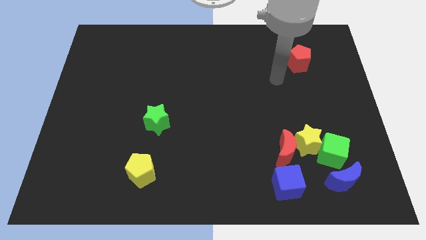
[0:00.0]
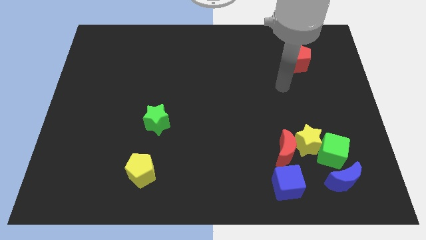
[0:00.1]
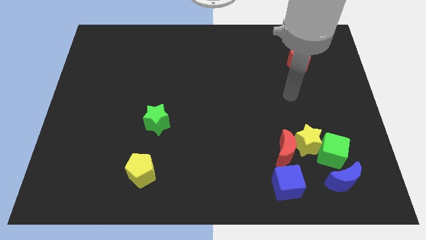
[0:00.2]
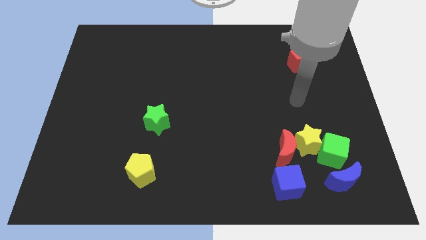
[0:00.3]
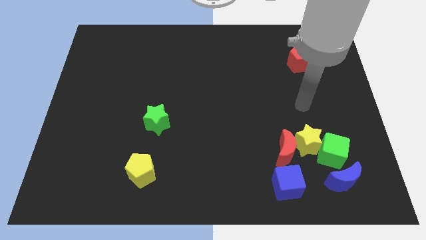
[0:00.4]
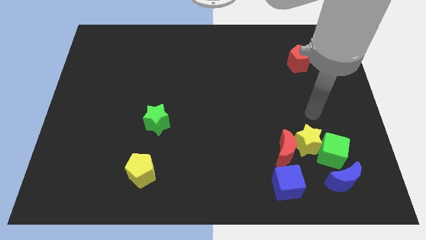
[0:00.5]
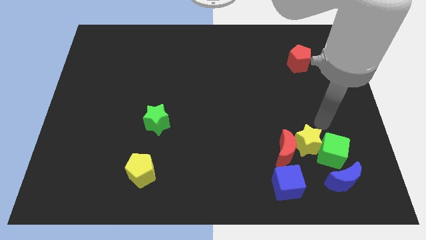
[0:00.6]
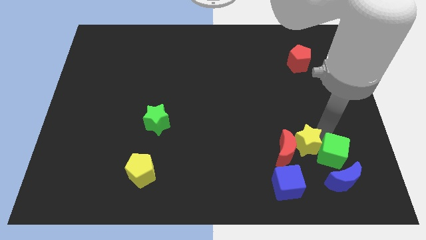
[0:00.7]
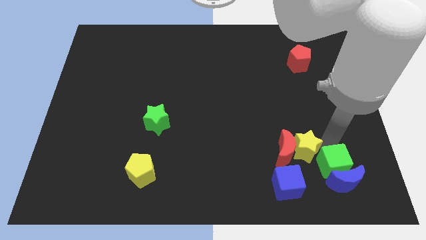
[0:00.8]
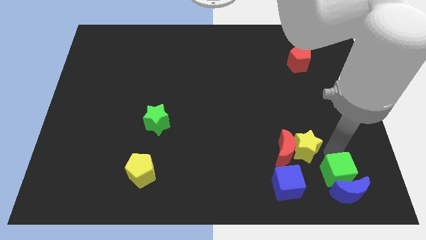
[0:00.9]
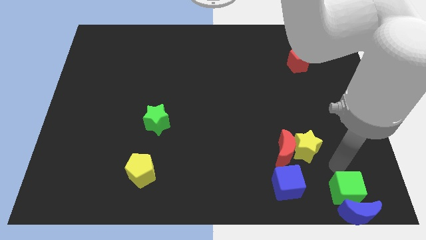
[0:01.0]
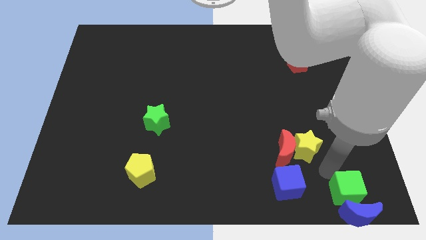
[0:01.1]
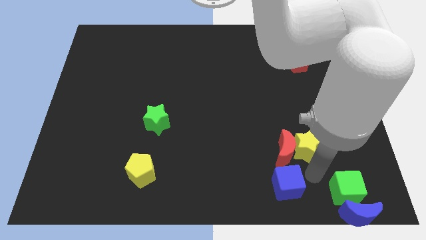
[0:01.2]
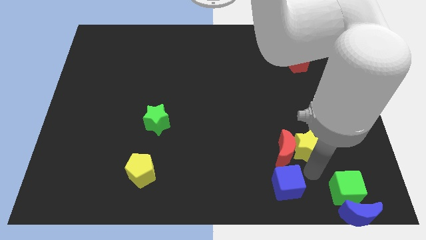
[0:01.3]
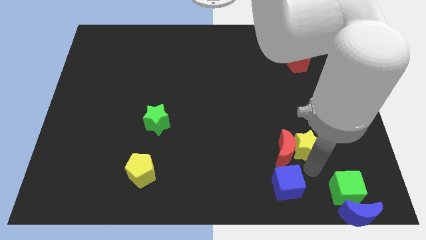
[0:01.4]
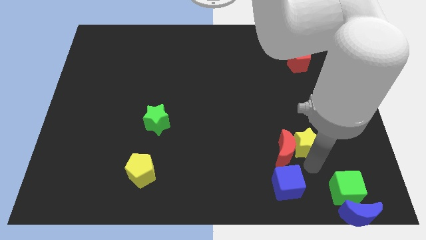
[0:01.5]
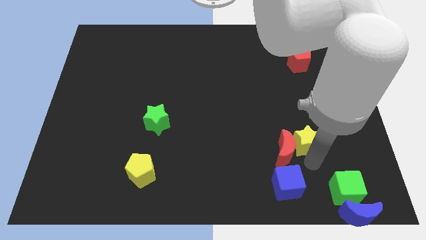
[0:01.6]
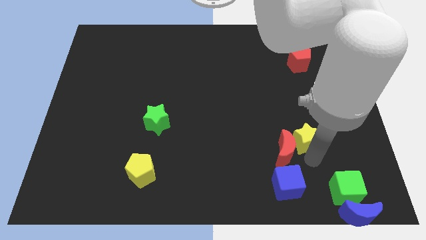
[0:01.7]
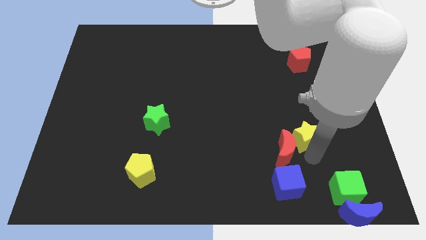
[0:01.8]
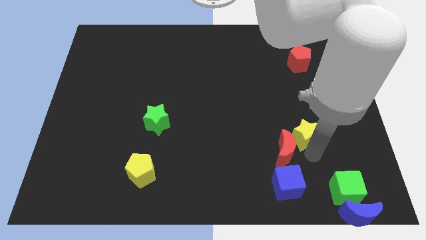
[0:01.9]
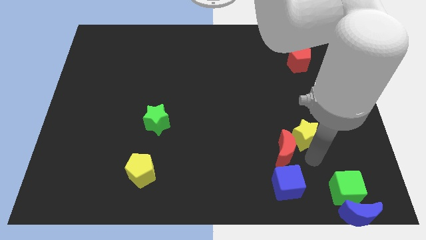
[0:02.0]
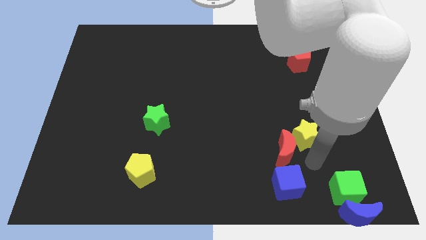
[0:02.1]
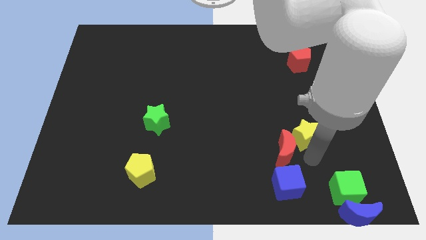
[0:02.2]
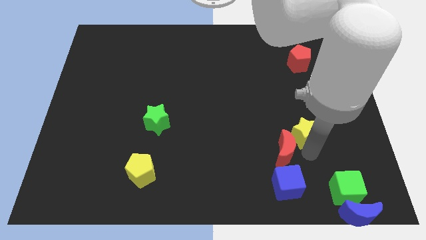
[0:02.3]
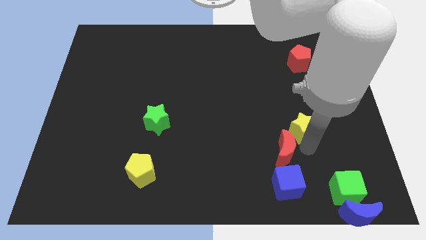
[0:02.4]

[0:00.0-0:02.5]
pull the yellow star apart from the red moon and green cube

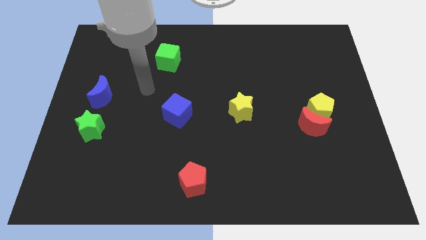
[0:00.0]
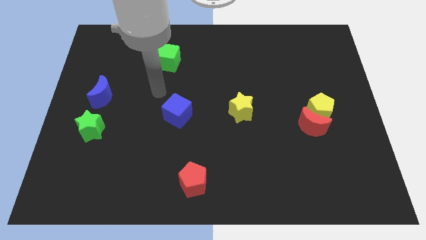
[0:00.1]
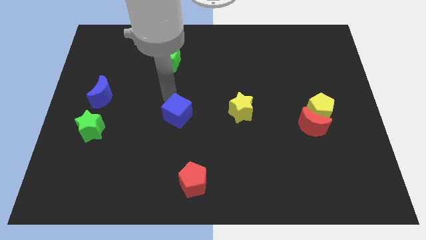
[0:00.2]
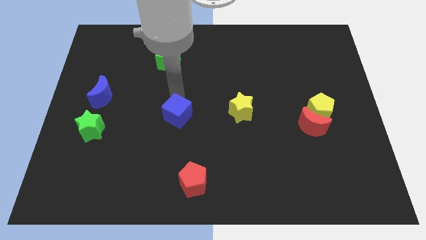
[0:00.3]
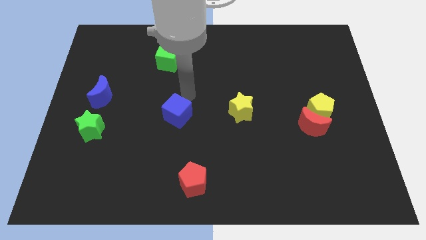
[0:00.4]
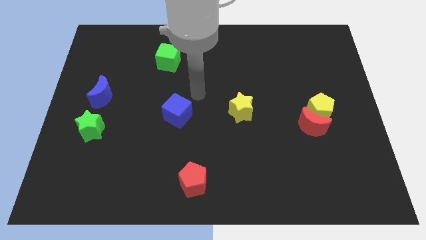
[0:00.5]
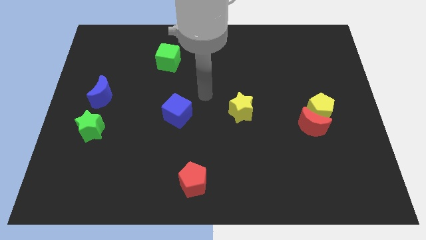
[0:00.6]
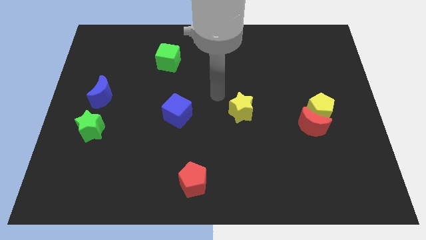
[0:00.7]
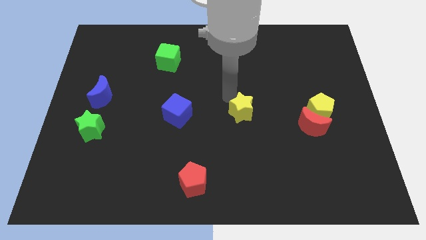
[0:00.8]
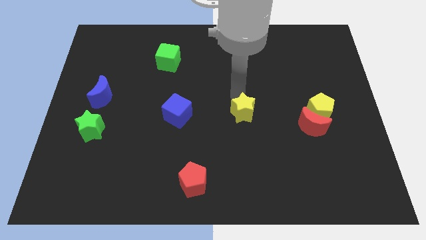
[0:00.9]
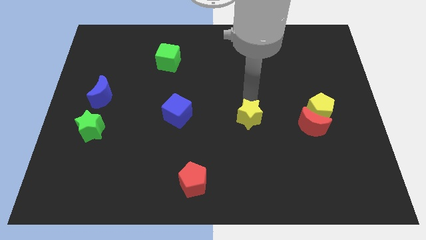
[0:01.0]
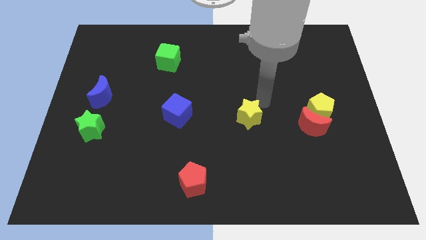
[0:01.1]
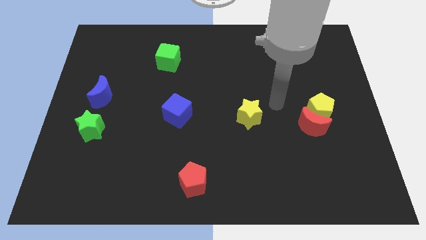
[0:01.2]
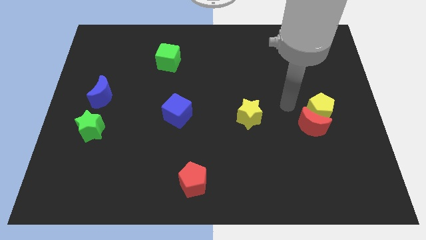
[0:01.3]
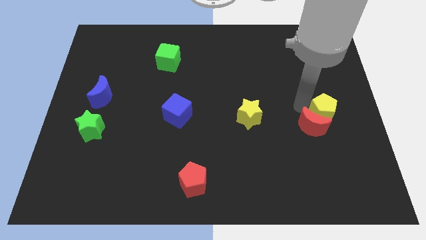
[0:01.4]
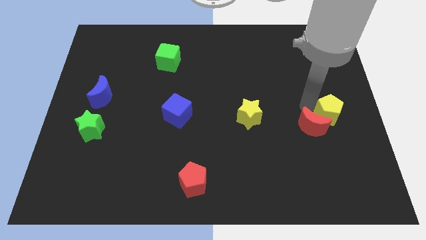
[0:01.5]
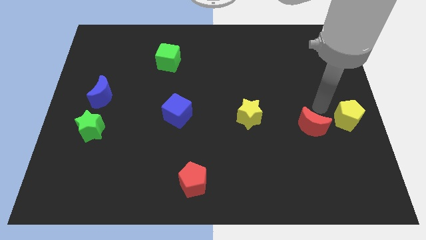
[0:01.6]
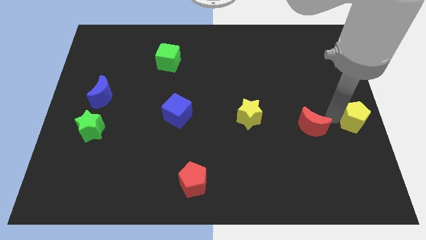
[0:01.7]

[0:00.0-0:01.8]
pull the red moon apart from the yellow pentagon

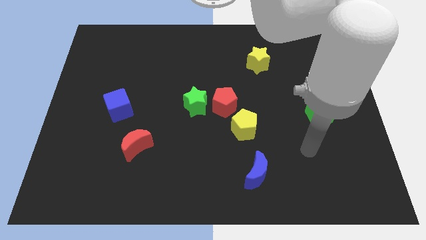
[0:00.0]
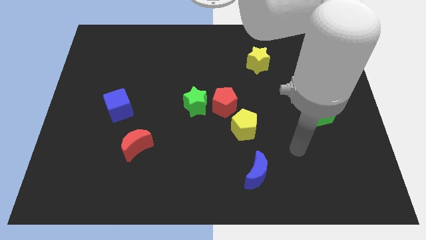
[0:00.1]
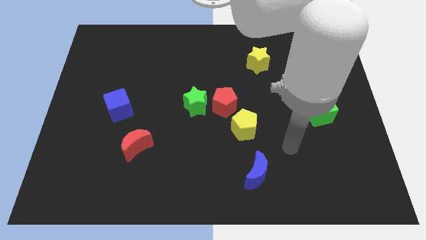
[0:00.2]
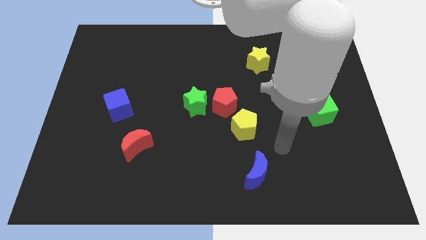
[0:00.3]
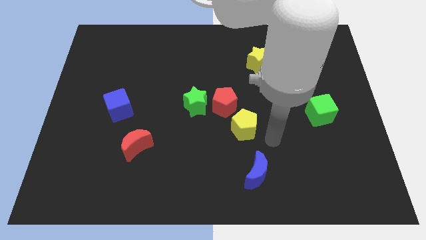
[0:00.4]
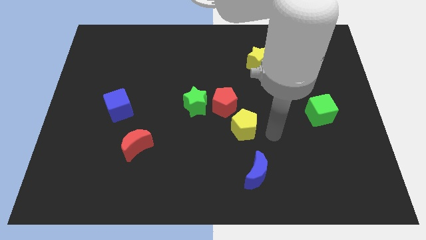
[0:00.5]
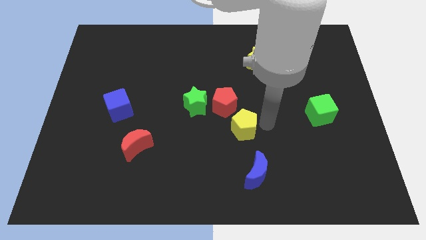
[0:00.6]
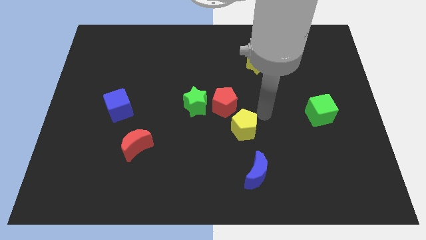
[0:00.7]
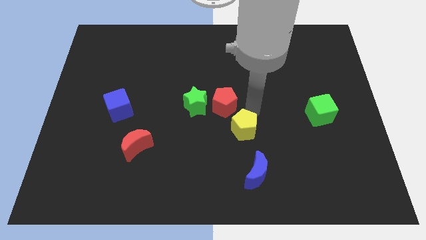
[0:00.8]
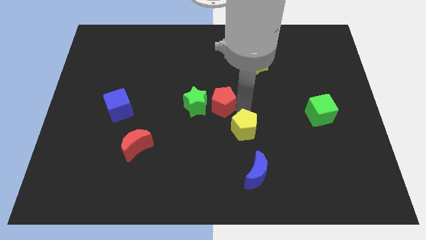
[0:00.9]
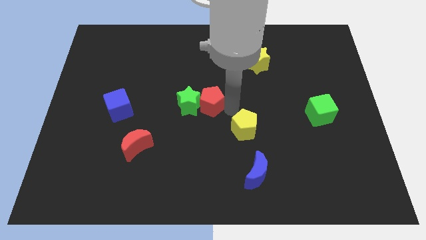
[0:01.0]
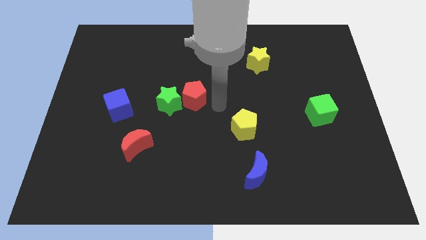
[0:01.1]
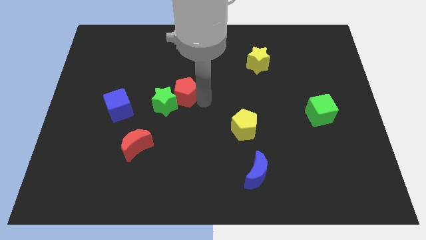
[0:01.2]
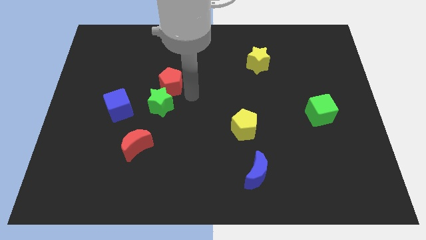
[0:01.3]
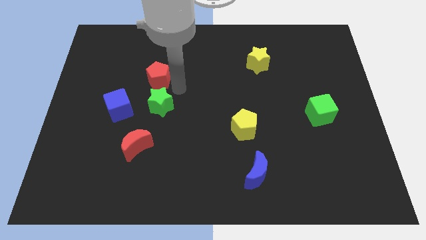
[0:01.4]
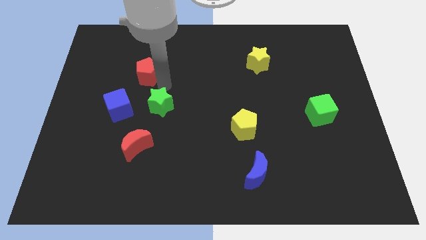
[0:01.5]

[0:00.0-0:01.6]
separate the green star from the red pentagon

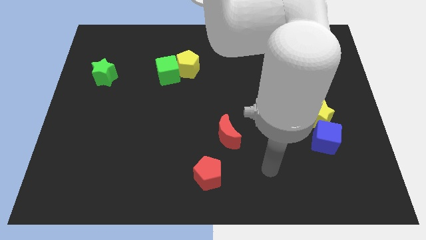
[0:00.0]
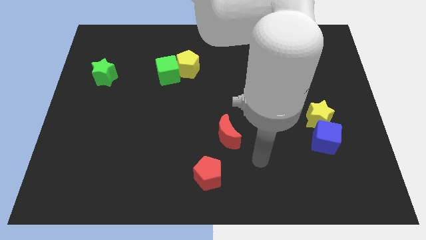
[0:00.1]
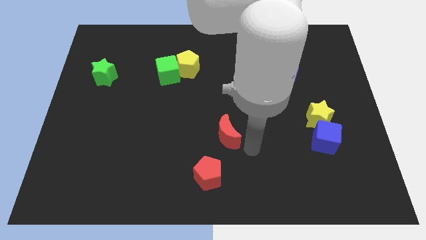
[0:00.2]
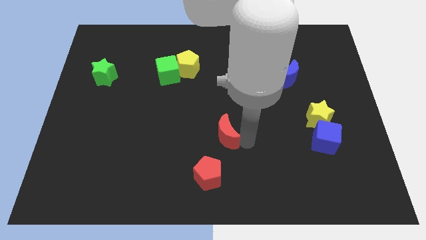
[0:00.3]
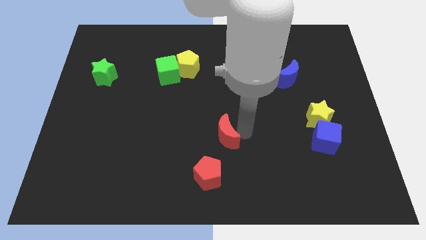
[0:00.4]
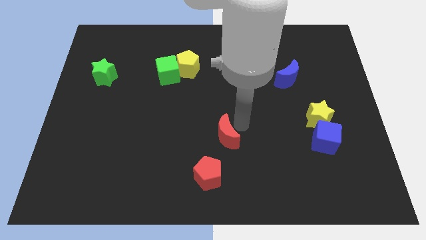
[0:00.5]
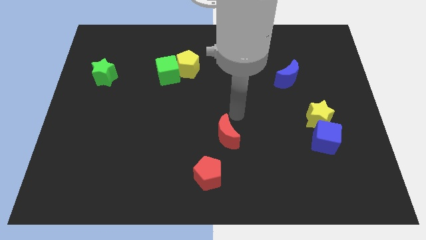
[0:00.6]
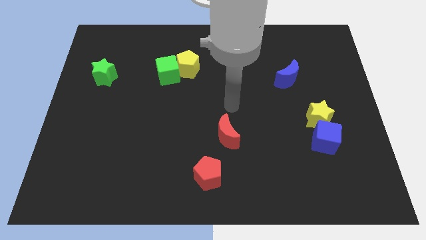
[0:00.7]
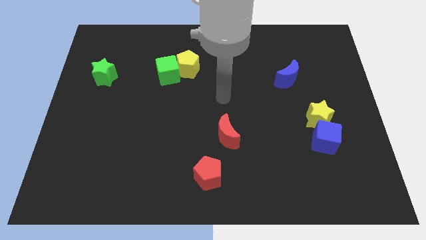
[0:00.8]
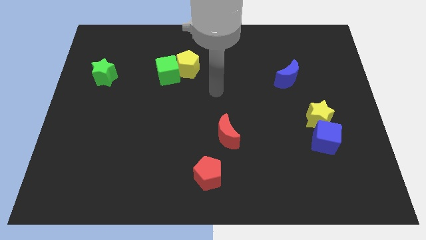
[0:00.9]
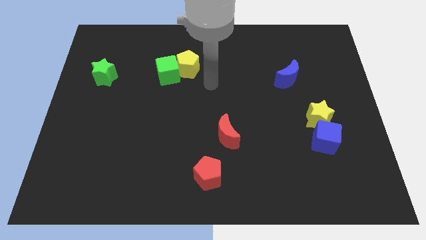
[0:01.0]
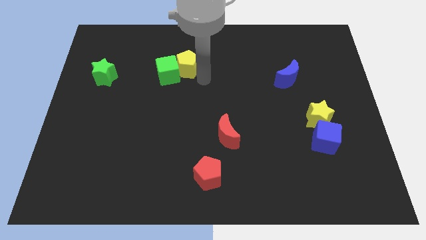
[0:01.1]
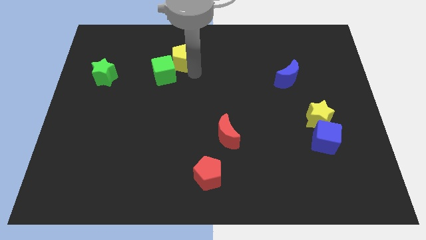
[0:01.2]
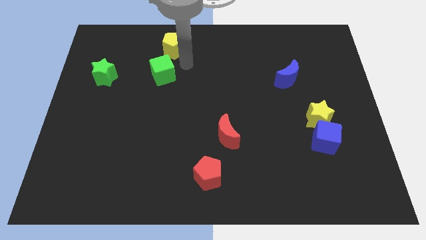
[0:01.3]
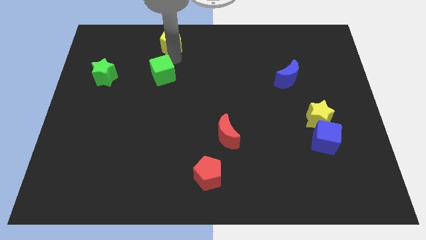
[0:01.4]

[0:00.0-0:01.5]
pull the green cube apart from the yellow pentagon

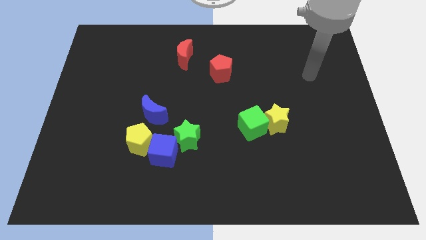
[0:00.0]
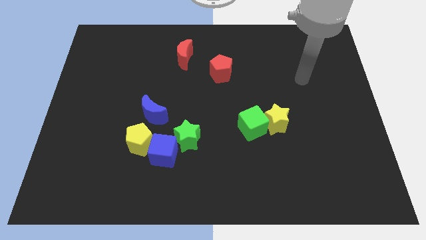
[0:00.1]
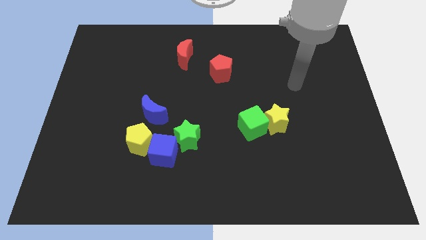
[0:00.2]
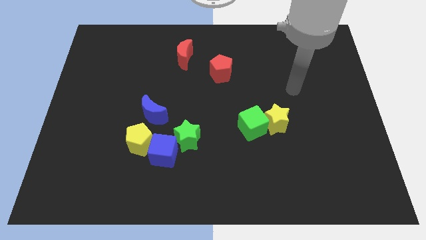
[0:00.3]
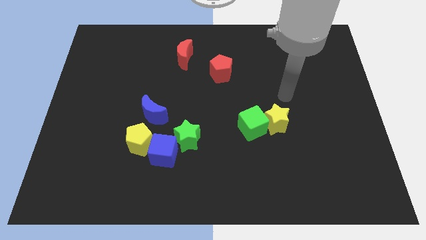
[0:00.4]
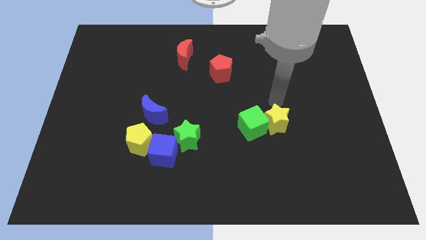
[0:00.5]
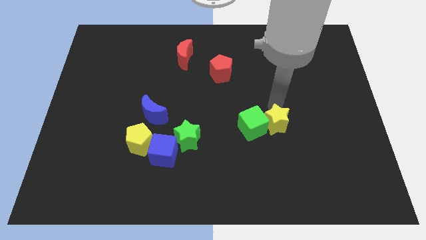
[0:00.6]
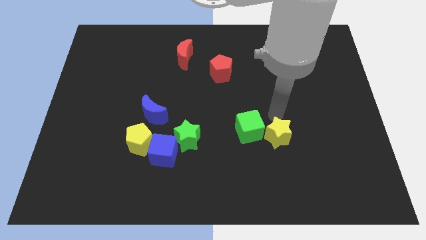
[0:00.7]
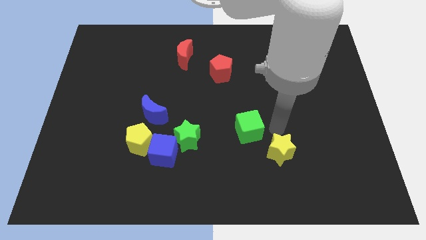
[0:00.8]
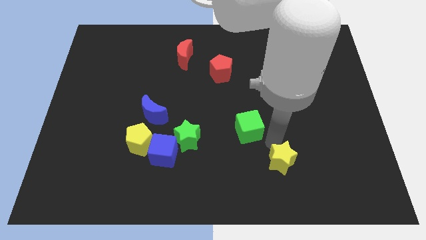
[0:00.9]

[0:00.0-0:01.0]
move the green cube away from the yellow star

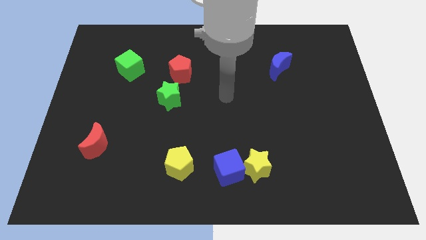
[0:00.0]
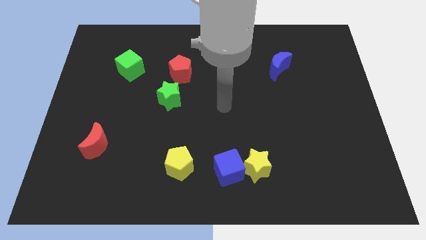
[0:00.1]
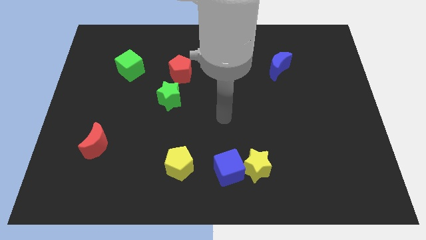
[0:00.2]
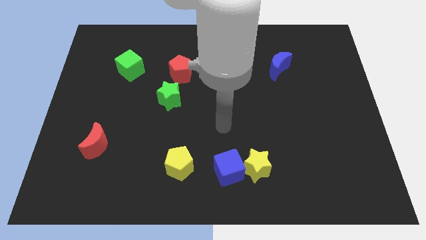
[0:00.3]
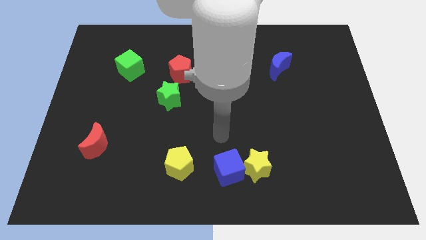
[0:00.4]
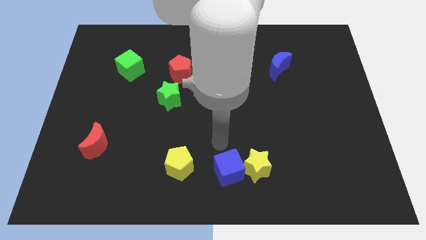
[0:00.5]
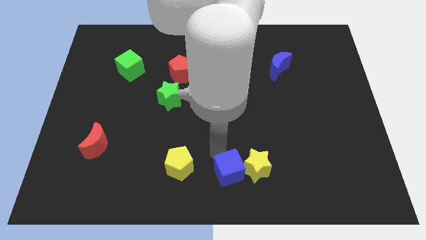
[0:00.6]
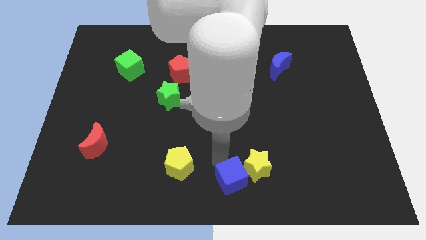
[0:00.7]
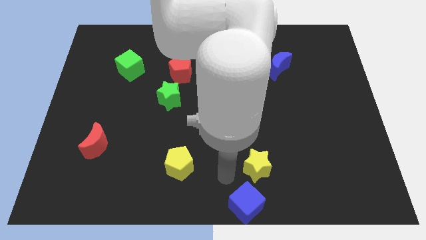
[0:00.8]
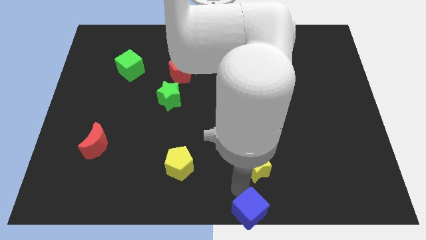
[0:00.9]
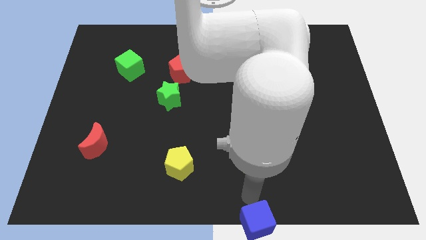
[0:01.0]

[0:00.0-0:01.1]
move the yellow star away from the blue cube
